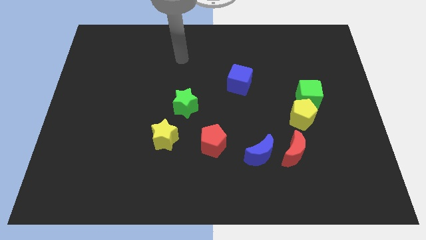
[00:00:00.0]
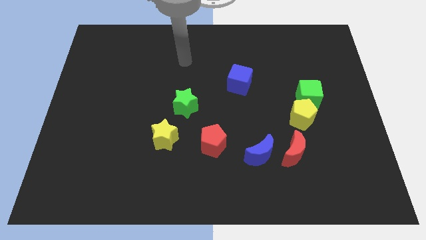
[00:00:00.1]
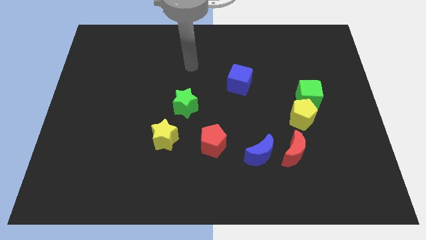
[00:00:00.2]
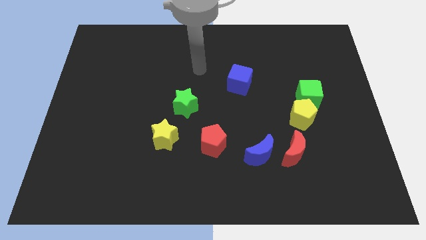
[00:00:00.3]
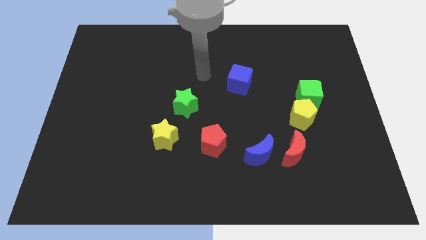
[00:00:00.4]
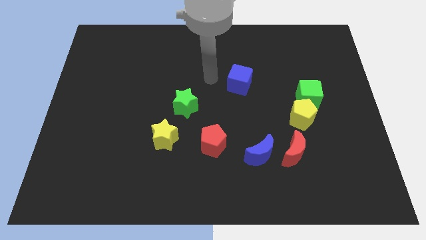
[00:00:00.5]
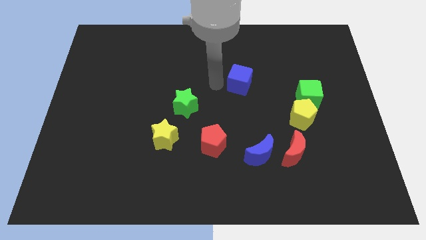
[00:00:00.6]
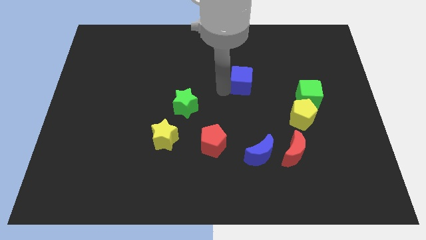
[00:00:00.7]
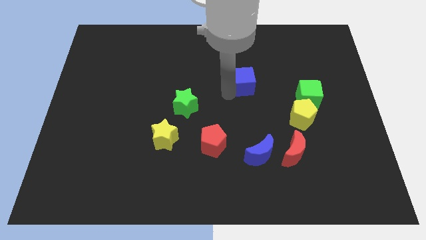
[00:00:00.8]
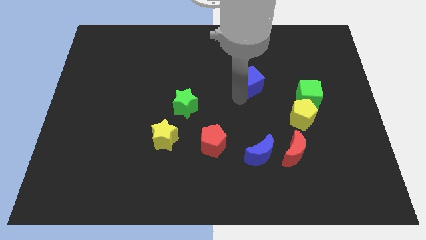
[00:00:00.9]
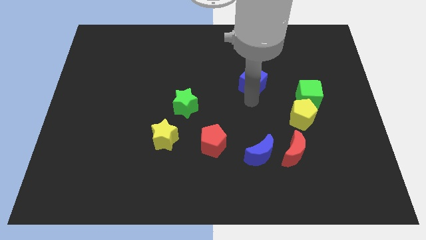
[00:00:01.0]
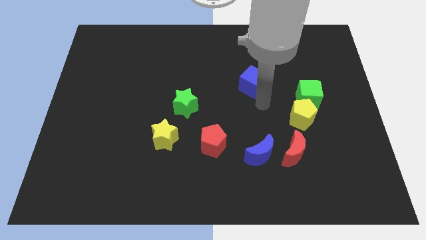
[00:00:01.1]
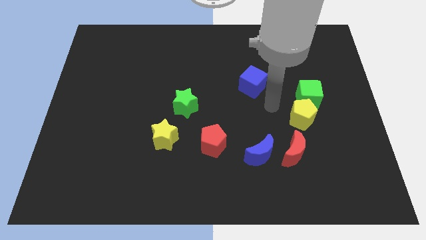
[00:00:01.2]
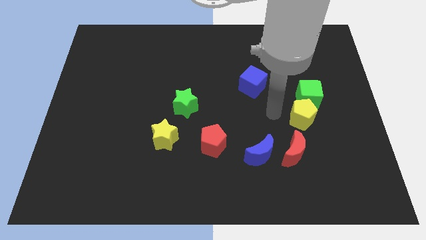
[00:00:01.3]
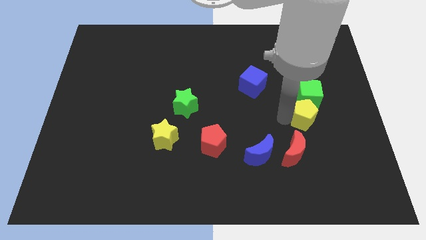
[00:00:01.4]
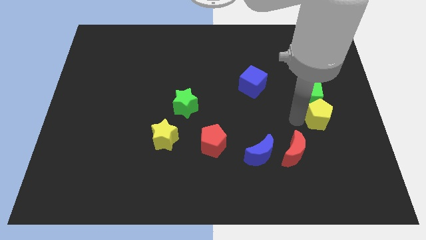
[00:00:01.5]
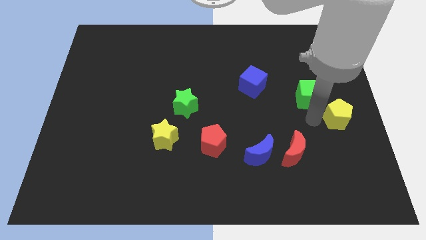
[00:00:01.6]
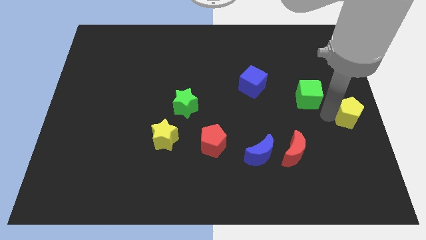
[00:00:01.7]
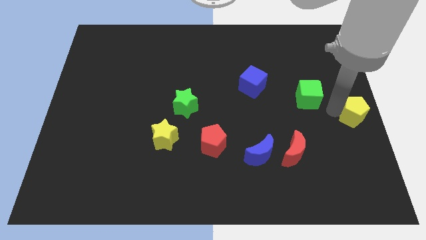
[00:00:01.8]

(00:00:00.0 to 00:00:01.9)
separate the green cube from the yellow pentagon

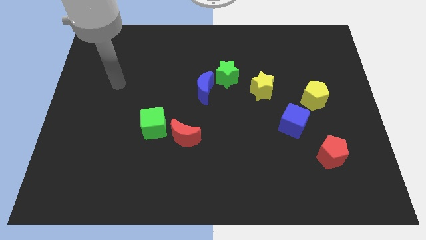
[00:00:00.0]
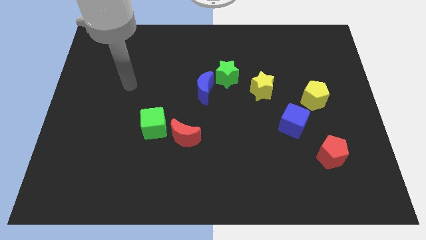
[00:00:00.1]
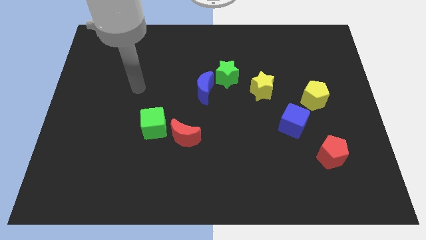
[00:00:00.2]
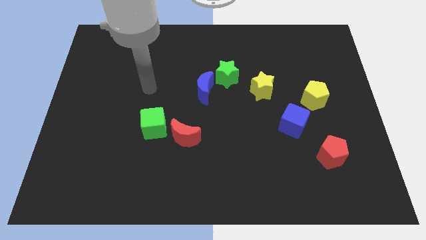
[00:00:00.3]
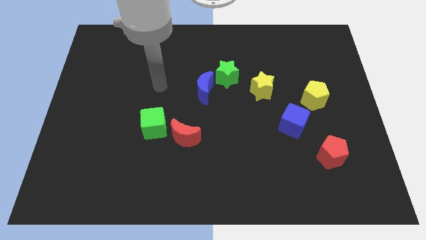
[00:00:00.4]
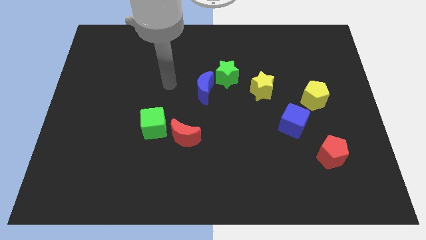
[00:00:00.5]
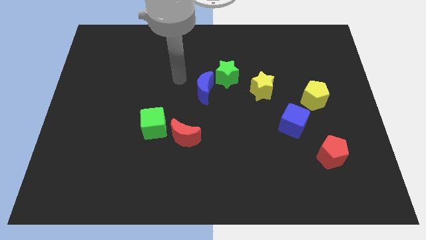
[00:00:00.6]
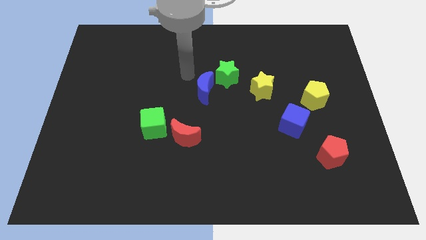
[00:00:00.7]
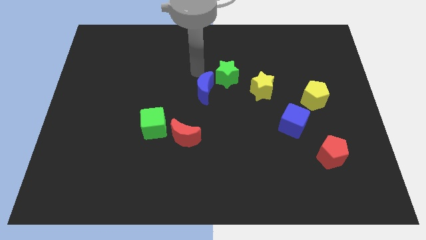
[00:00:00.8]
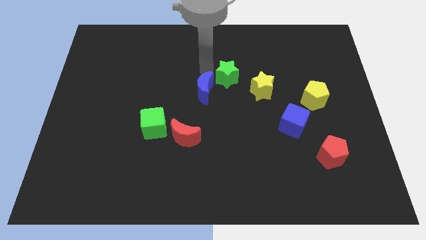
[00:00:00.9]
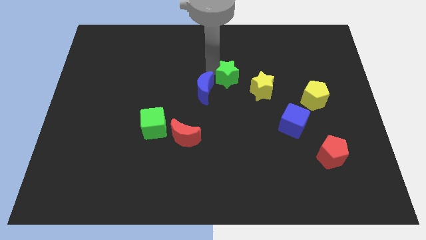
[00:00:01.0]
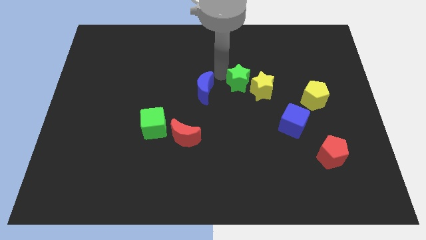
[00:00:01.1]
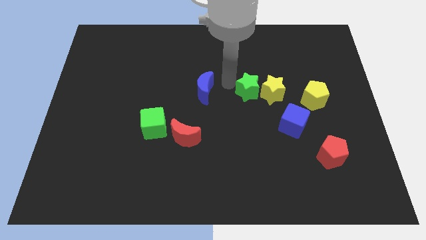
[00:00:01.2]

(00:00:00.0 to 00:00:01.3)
separate the blue moon from the green star

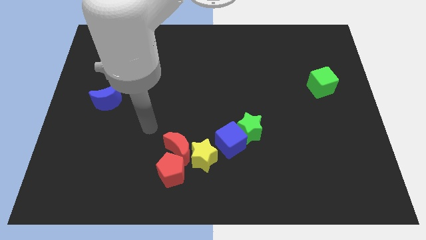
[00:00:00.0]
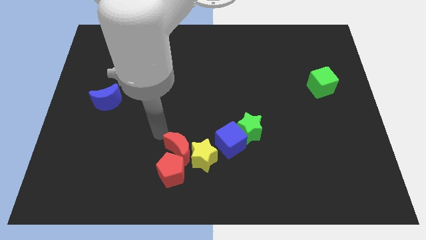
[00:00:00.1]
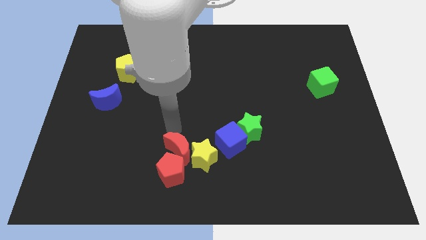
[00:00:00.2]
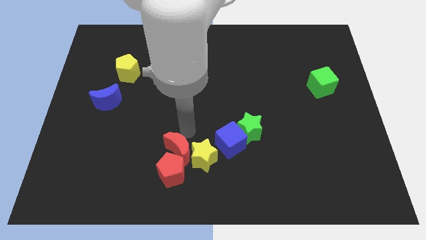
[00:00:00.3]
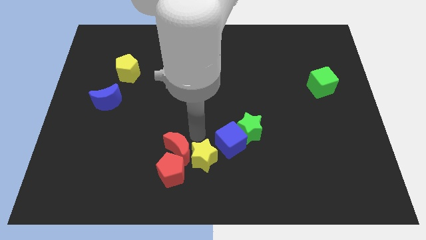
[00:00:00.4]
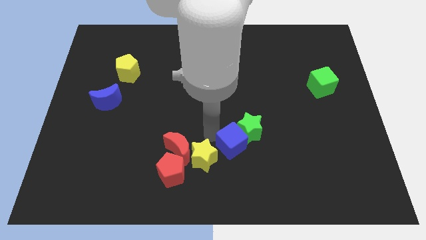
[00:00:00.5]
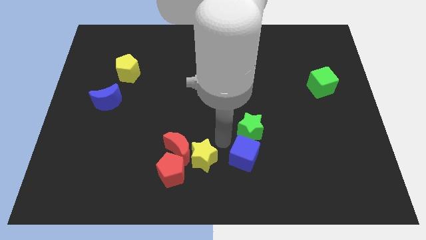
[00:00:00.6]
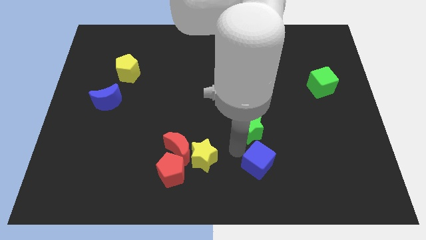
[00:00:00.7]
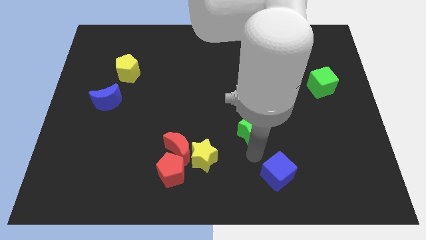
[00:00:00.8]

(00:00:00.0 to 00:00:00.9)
separate the green star from the blue cube

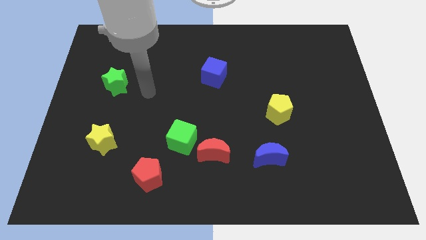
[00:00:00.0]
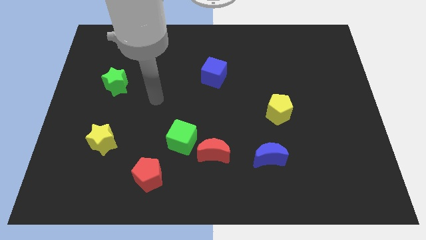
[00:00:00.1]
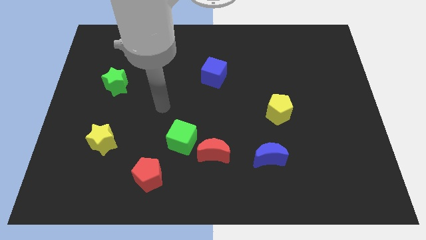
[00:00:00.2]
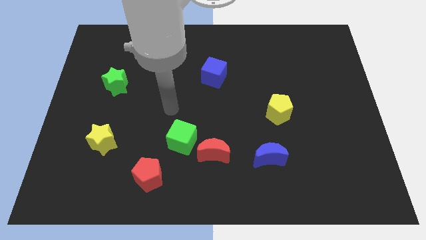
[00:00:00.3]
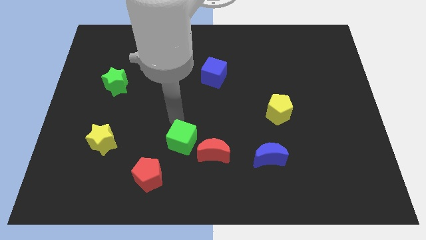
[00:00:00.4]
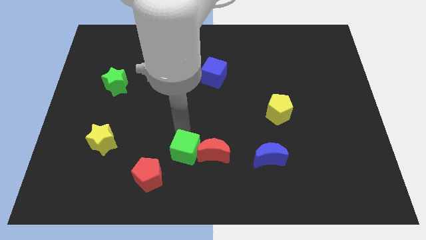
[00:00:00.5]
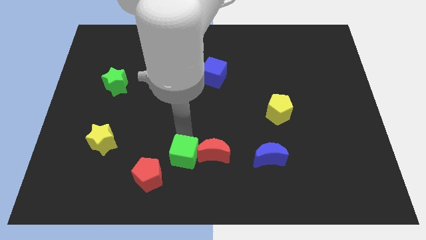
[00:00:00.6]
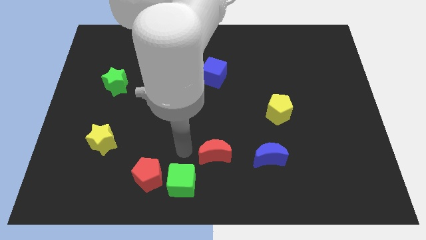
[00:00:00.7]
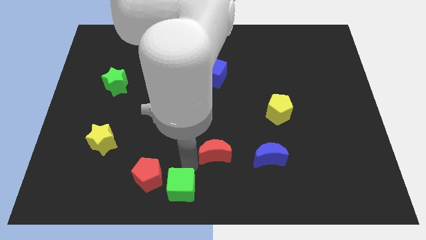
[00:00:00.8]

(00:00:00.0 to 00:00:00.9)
separate the red moon from the green cube

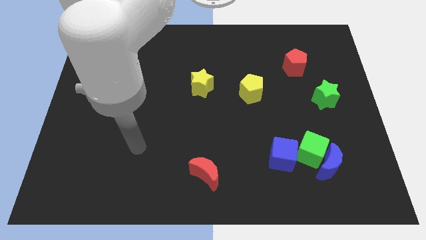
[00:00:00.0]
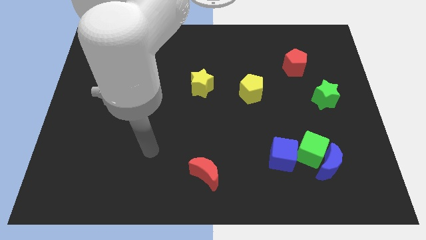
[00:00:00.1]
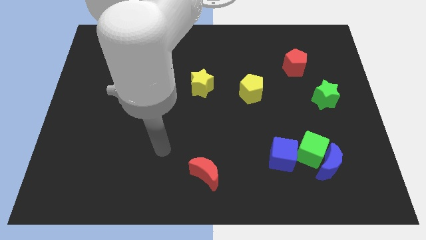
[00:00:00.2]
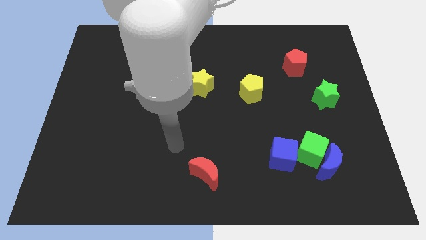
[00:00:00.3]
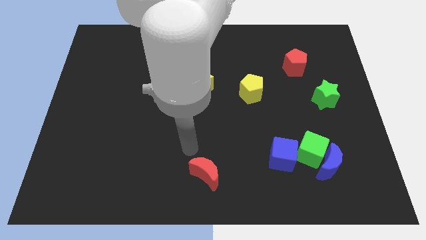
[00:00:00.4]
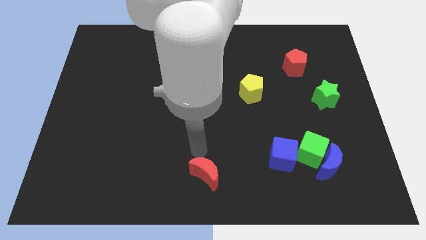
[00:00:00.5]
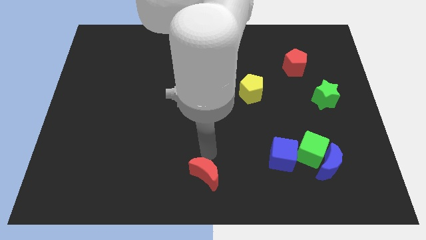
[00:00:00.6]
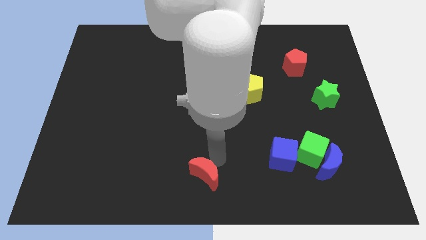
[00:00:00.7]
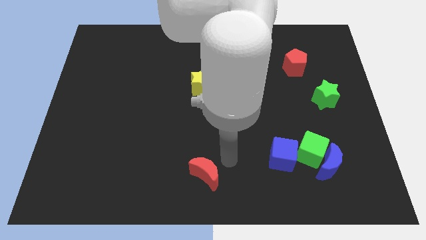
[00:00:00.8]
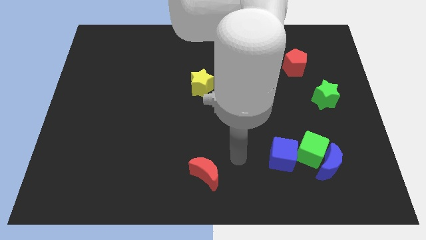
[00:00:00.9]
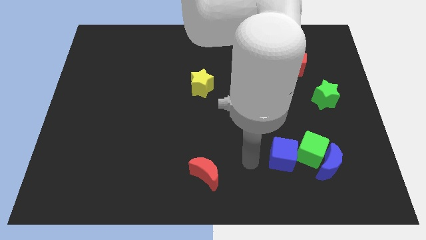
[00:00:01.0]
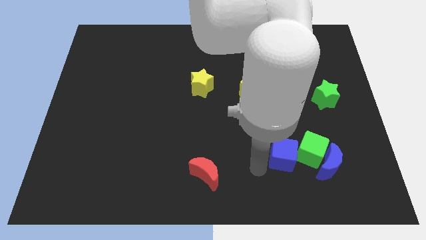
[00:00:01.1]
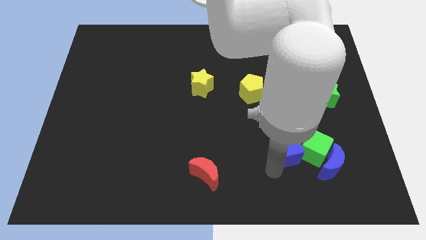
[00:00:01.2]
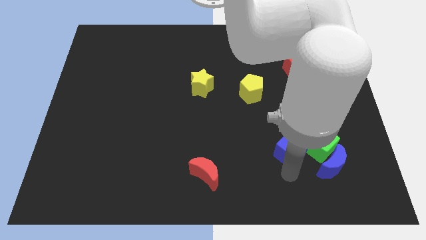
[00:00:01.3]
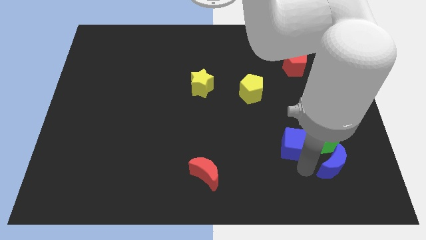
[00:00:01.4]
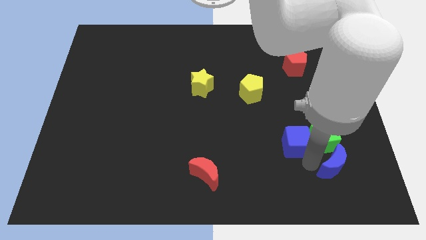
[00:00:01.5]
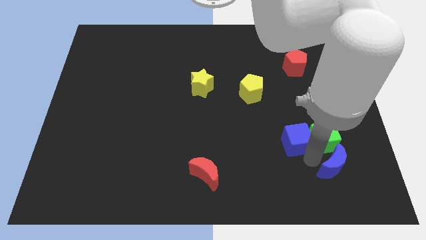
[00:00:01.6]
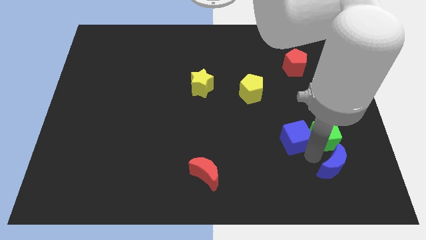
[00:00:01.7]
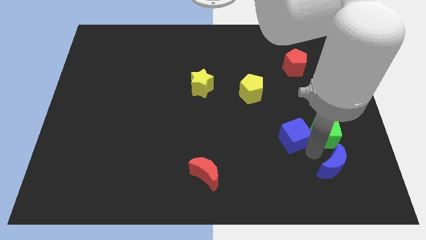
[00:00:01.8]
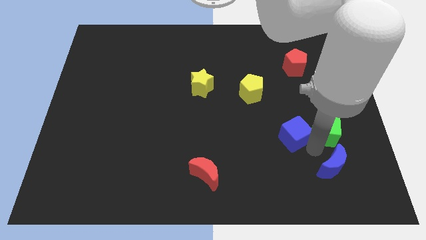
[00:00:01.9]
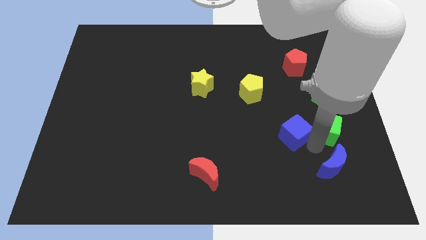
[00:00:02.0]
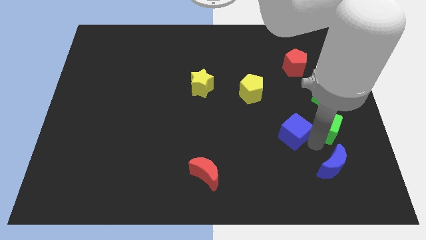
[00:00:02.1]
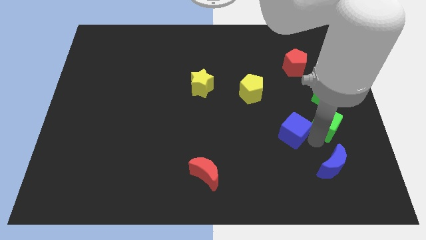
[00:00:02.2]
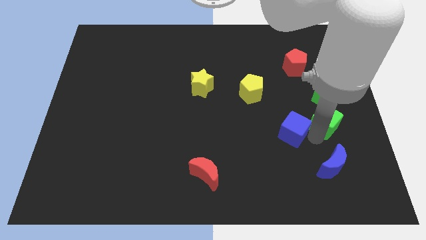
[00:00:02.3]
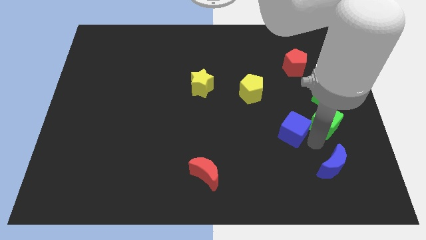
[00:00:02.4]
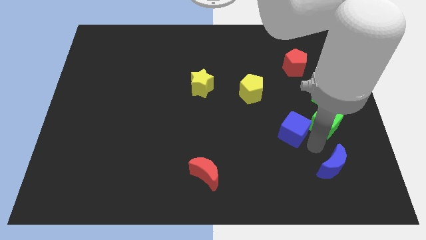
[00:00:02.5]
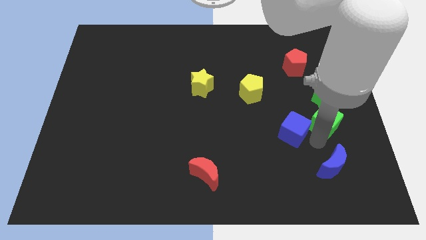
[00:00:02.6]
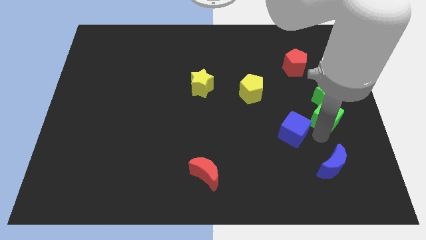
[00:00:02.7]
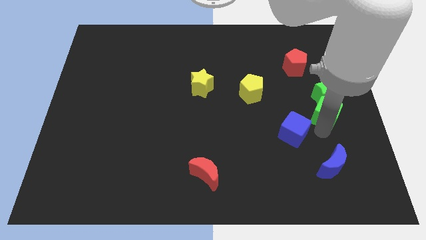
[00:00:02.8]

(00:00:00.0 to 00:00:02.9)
pull the green cube apart from the blue moon and blue cube

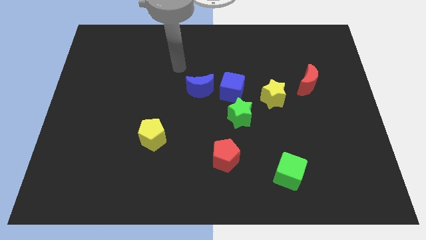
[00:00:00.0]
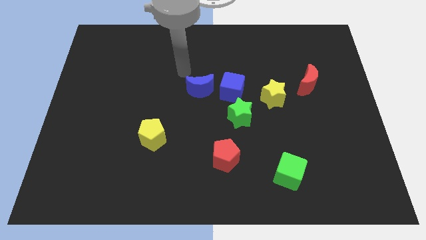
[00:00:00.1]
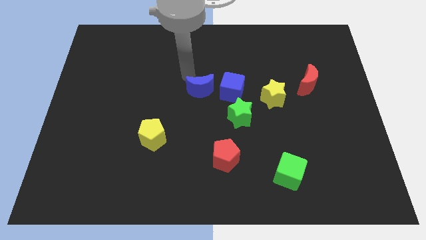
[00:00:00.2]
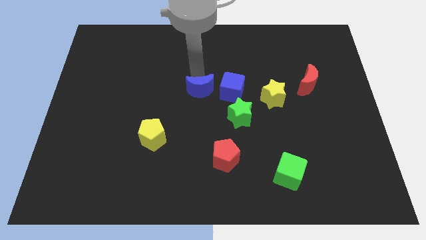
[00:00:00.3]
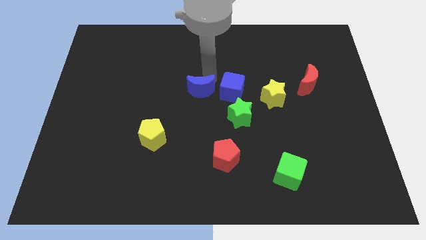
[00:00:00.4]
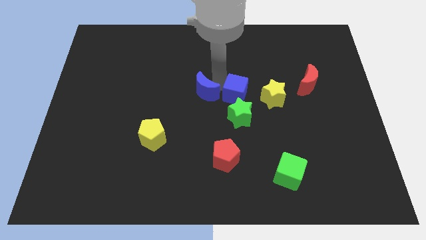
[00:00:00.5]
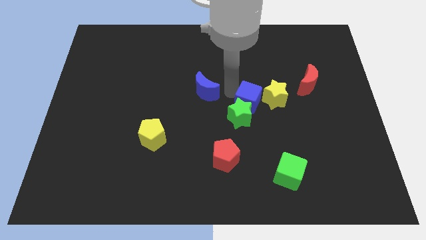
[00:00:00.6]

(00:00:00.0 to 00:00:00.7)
pull the blue moon apart from the blue cube

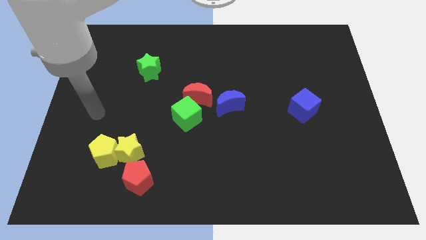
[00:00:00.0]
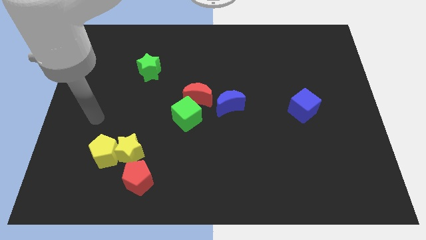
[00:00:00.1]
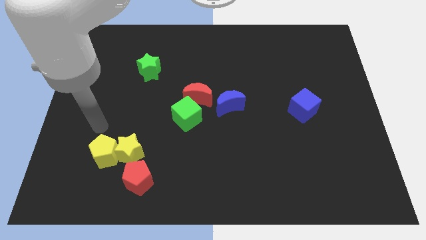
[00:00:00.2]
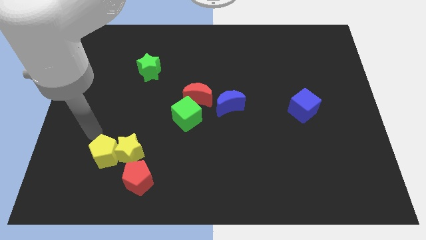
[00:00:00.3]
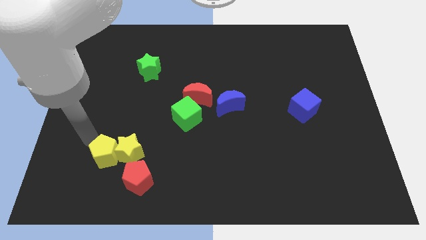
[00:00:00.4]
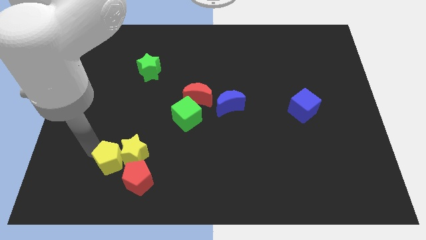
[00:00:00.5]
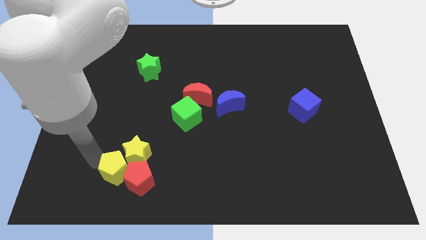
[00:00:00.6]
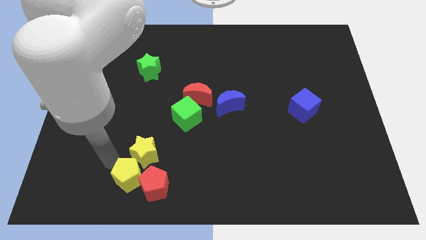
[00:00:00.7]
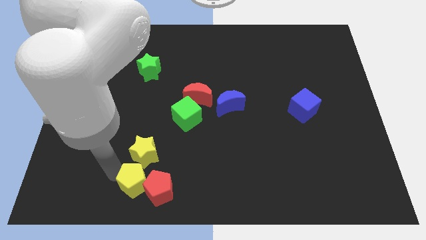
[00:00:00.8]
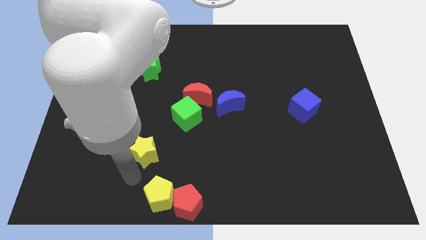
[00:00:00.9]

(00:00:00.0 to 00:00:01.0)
pull the yellow star apart from the yellow pentagon and red pentagon
